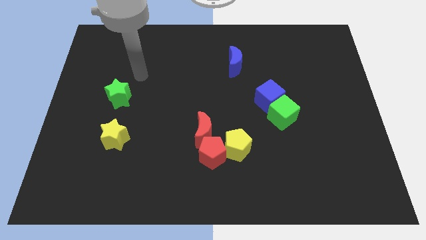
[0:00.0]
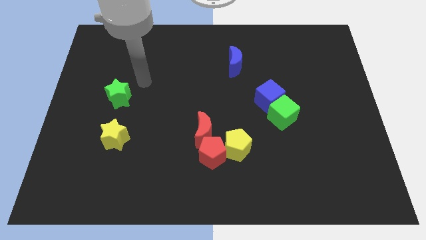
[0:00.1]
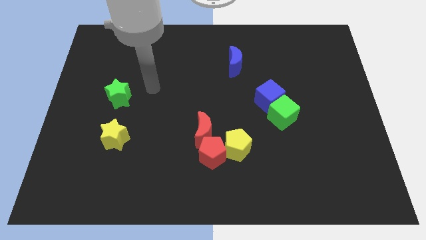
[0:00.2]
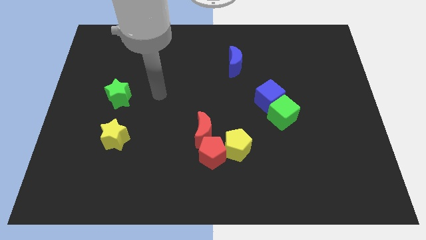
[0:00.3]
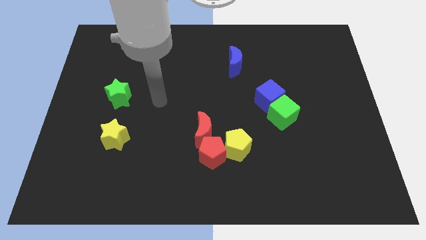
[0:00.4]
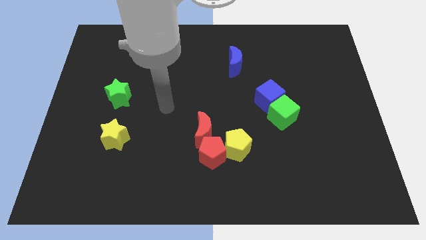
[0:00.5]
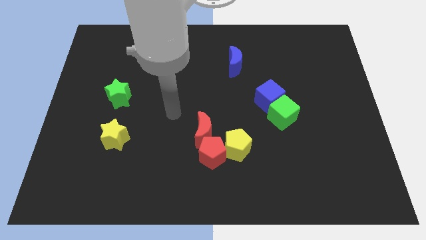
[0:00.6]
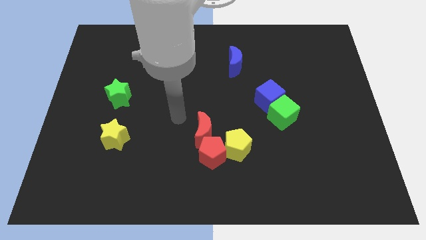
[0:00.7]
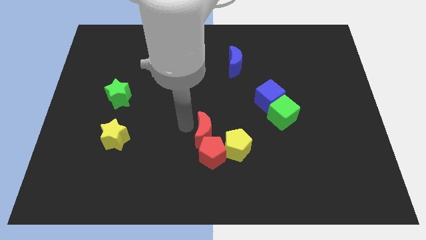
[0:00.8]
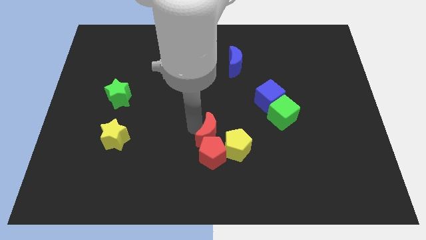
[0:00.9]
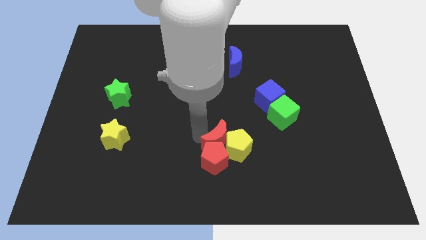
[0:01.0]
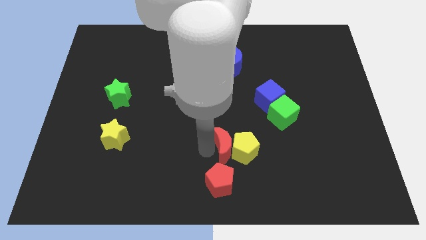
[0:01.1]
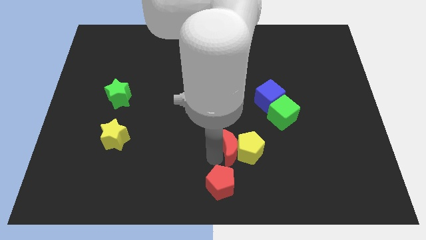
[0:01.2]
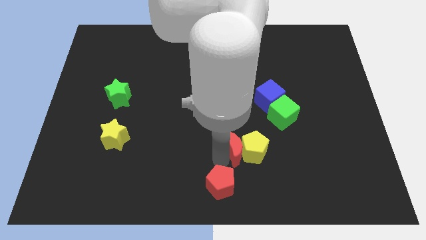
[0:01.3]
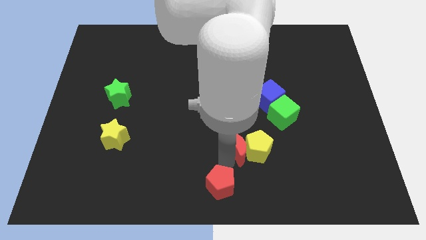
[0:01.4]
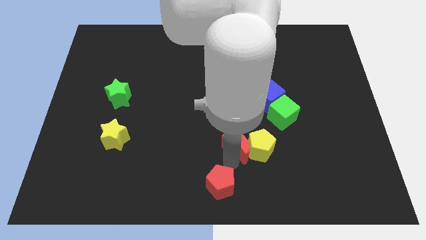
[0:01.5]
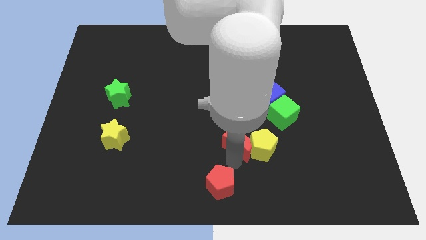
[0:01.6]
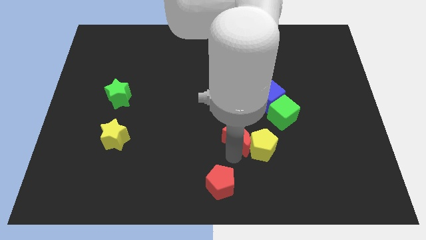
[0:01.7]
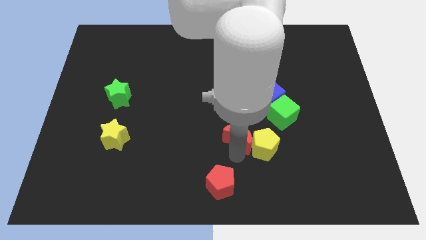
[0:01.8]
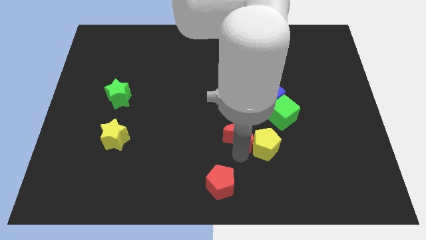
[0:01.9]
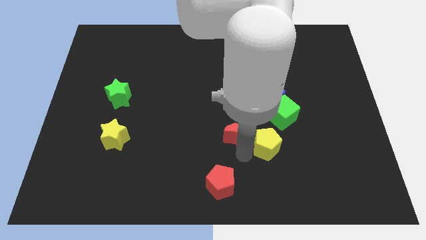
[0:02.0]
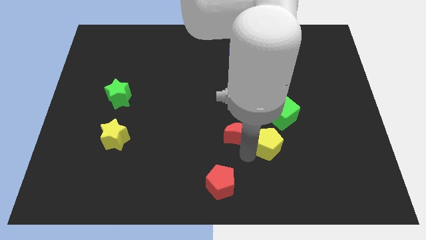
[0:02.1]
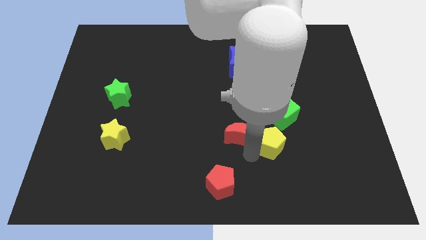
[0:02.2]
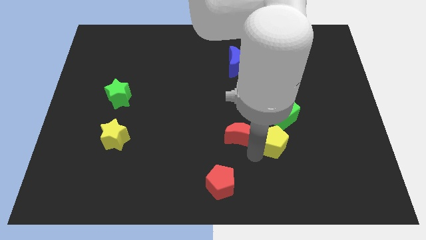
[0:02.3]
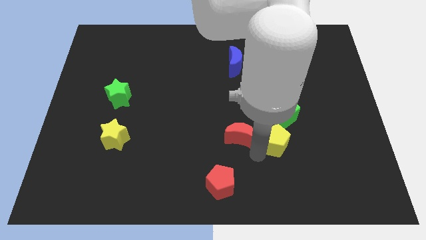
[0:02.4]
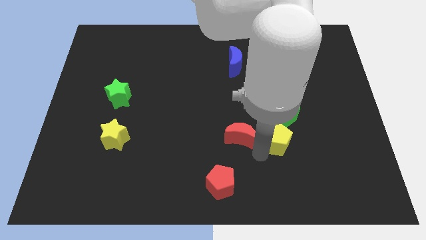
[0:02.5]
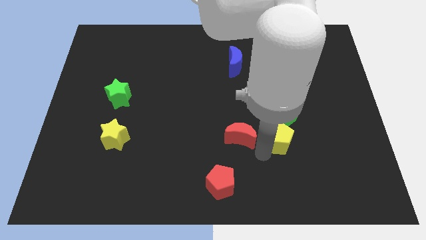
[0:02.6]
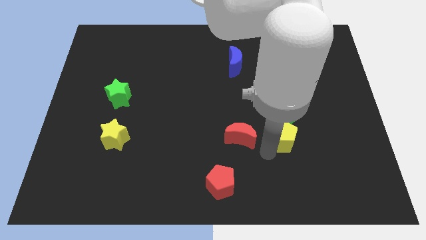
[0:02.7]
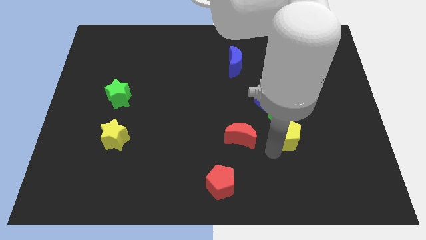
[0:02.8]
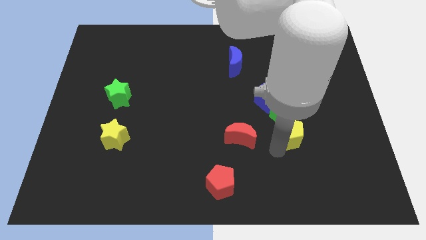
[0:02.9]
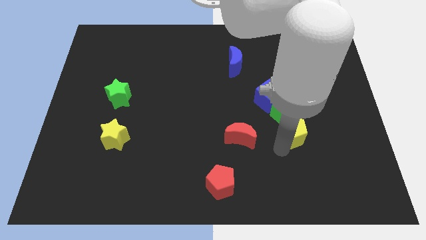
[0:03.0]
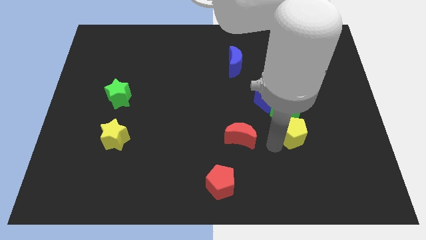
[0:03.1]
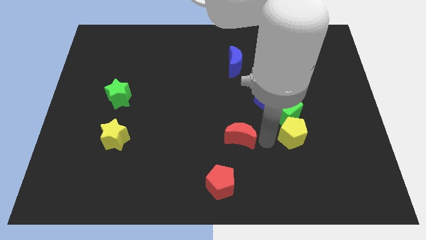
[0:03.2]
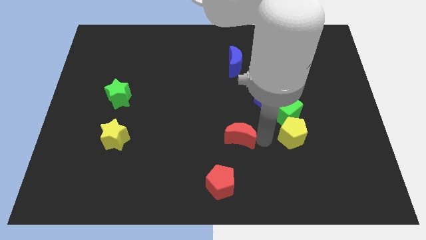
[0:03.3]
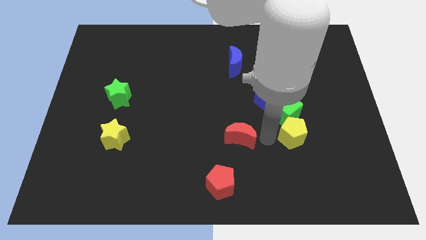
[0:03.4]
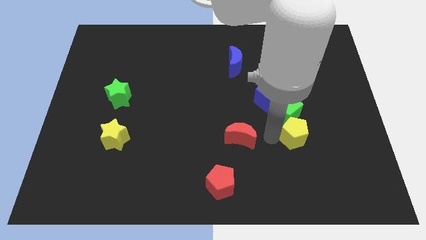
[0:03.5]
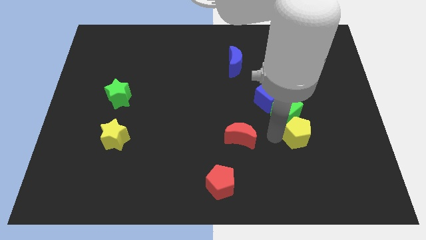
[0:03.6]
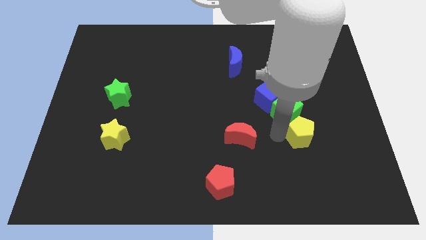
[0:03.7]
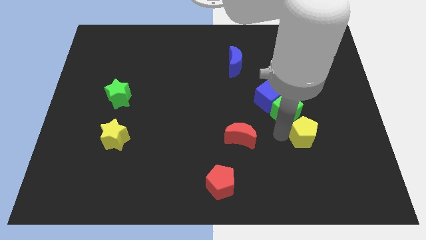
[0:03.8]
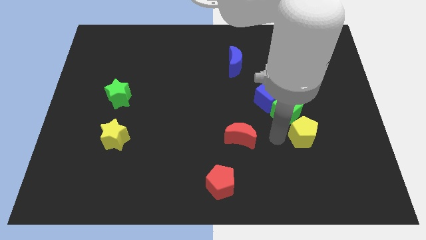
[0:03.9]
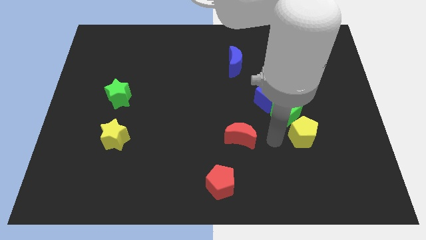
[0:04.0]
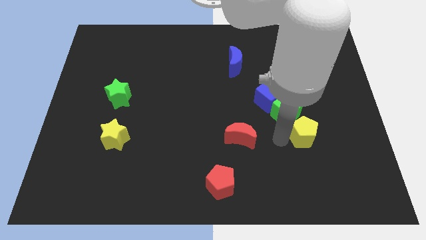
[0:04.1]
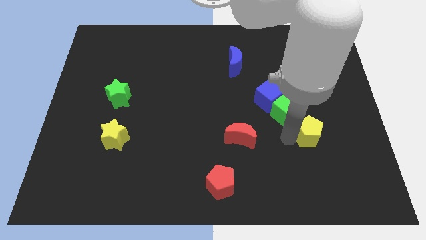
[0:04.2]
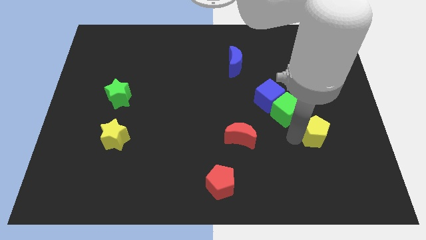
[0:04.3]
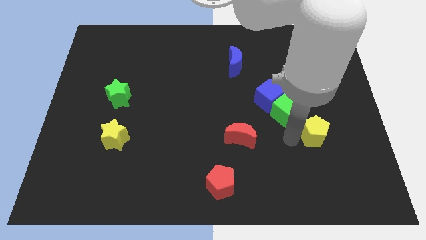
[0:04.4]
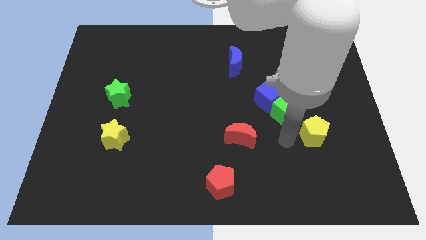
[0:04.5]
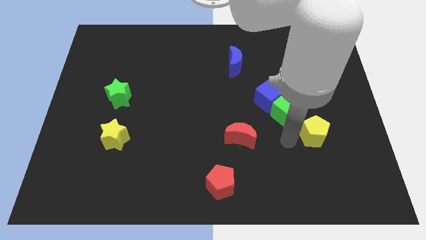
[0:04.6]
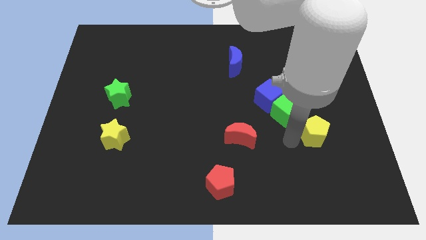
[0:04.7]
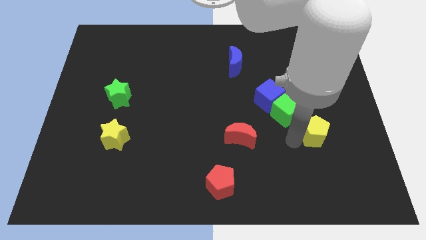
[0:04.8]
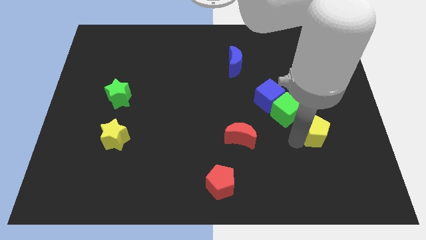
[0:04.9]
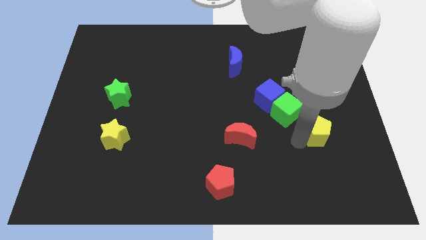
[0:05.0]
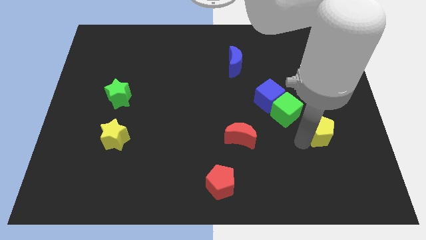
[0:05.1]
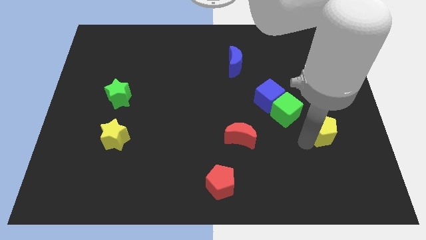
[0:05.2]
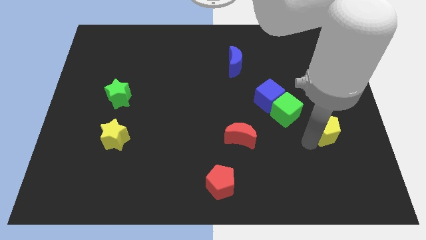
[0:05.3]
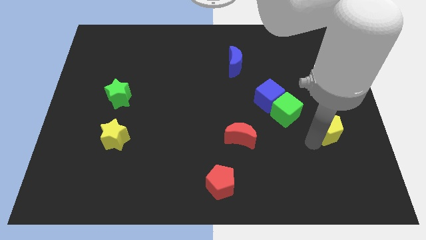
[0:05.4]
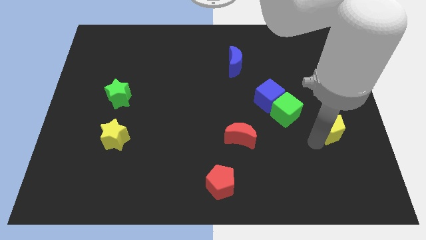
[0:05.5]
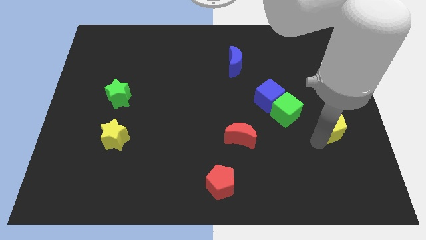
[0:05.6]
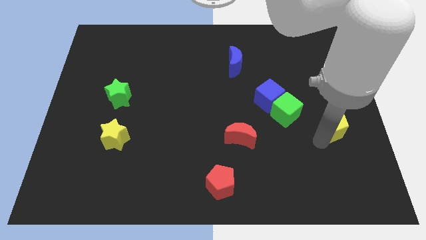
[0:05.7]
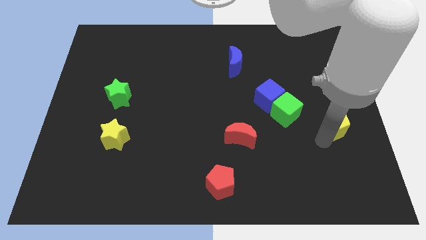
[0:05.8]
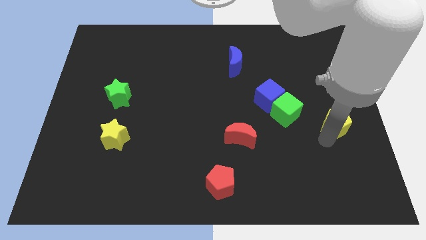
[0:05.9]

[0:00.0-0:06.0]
put the yellow pentagon to the right side

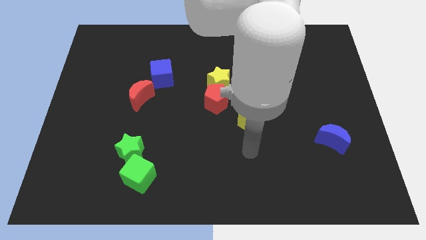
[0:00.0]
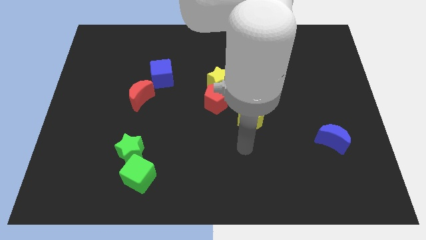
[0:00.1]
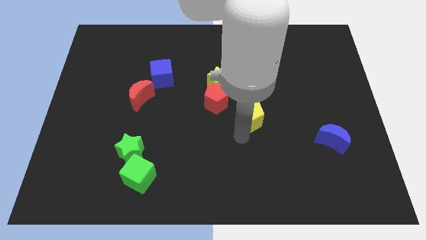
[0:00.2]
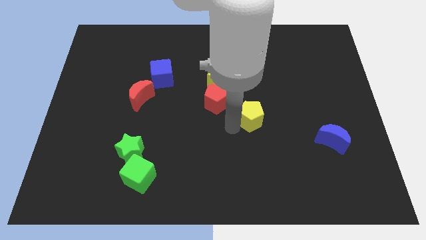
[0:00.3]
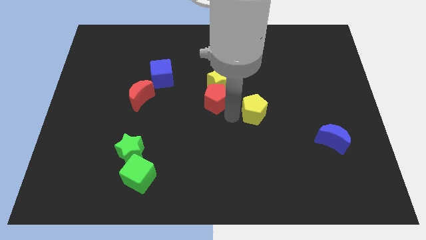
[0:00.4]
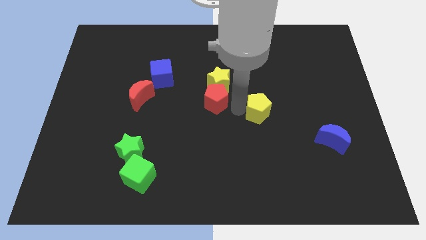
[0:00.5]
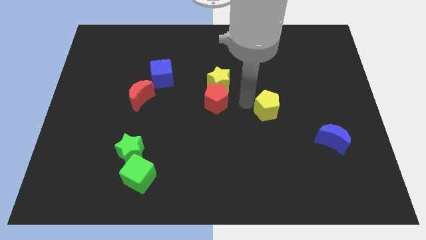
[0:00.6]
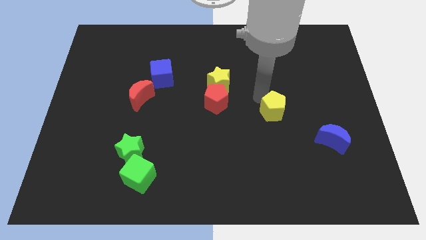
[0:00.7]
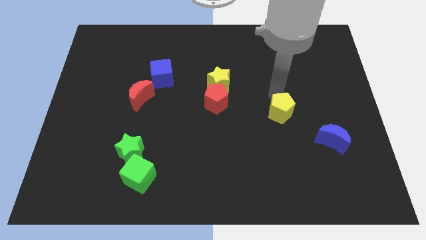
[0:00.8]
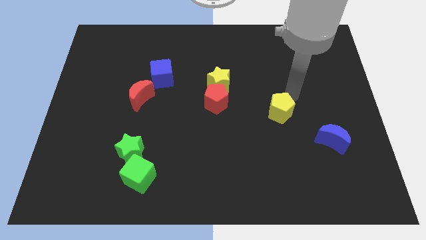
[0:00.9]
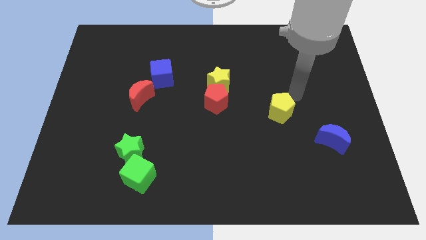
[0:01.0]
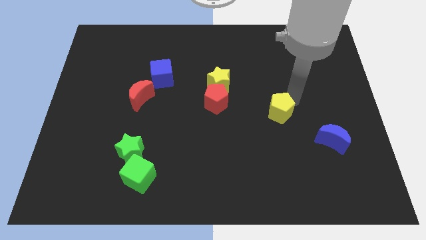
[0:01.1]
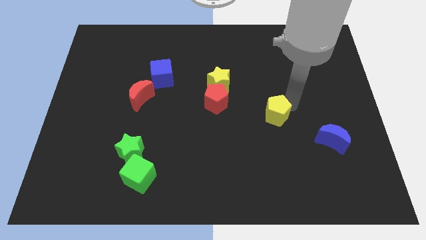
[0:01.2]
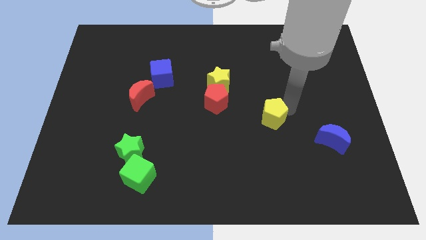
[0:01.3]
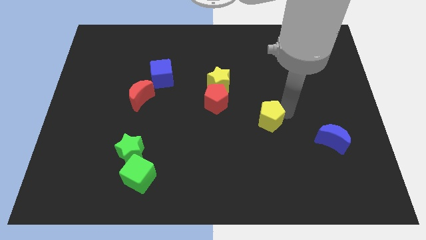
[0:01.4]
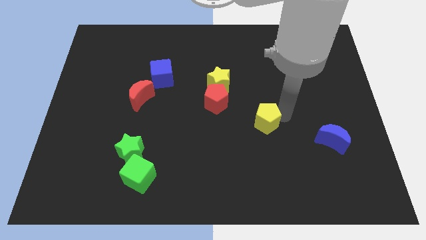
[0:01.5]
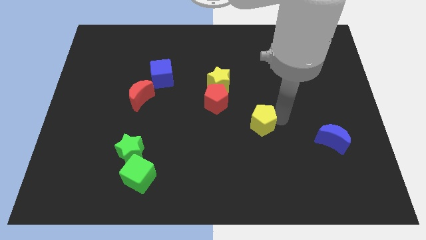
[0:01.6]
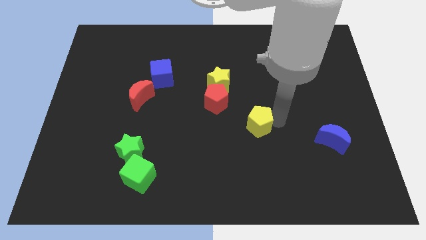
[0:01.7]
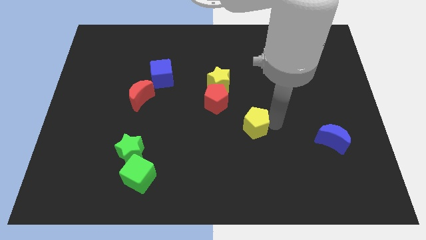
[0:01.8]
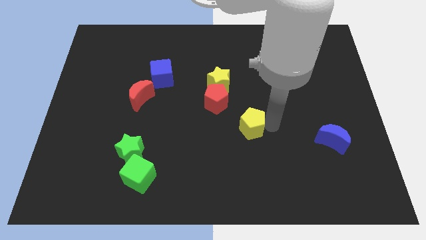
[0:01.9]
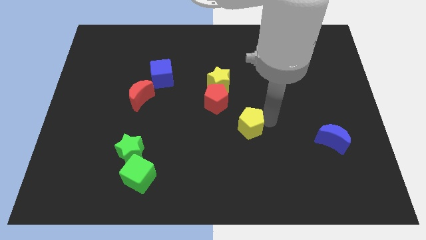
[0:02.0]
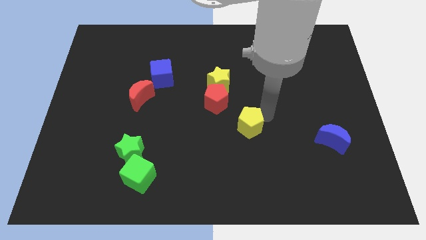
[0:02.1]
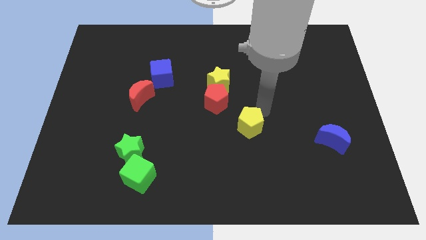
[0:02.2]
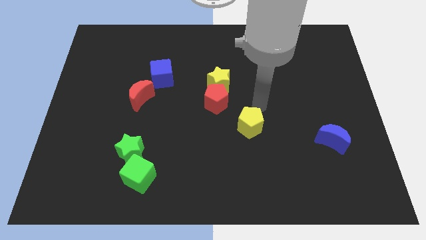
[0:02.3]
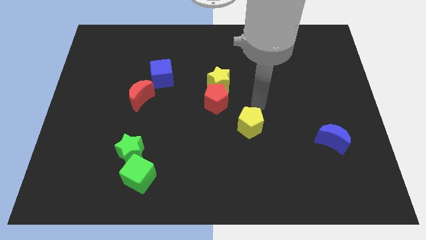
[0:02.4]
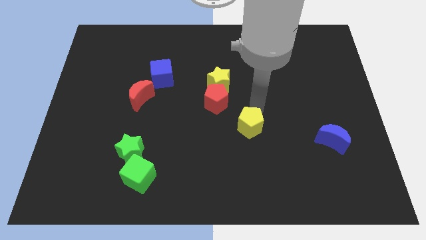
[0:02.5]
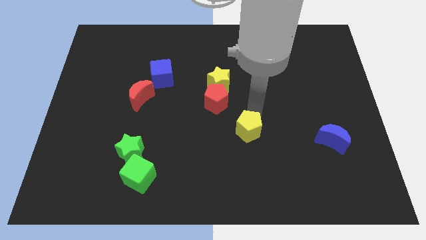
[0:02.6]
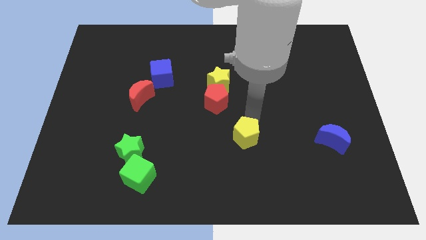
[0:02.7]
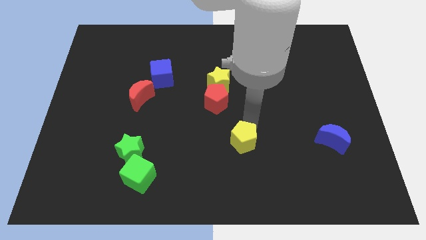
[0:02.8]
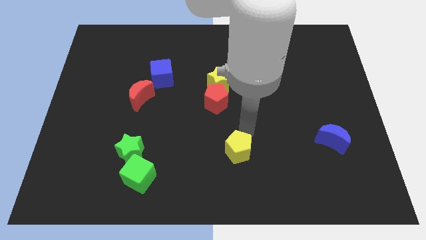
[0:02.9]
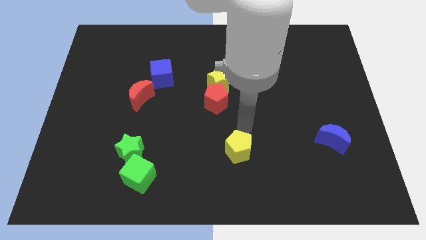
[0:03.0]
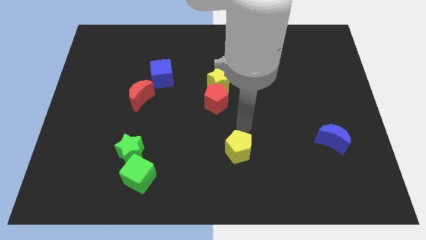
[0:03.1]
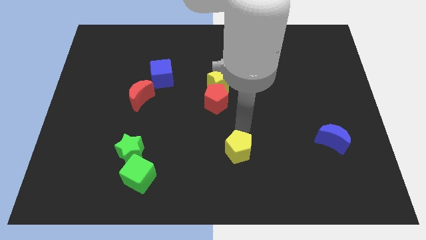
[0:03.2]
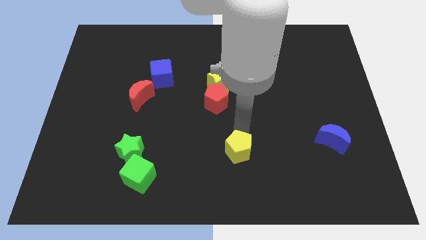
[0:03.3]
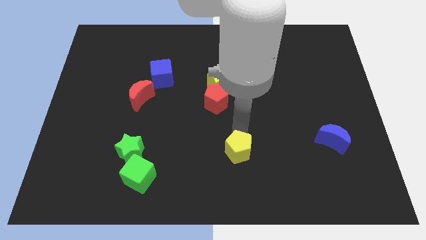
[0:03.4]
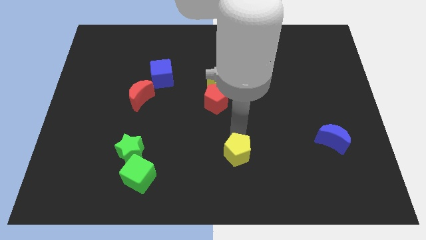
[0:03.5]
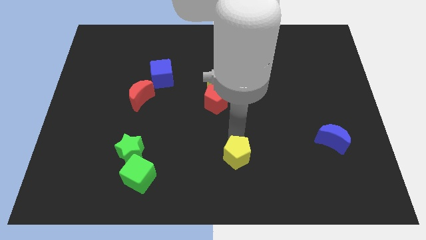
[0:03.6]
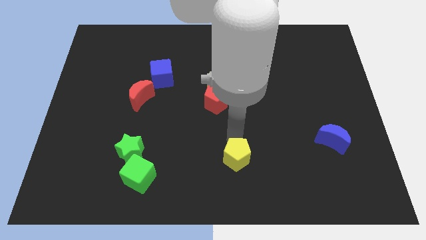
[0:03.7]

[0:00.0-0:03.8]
push the yellow pentagon to the bottom side
